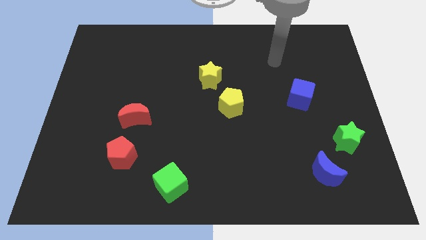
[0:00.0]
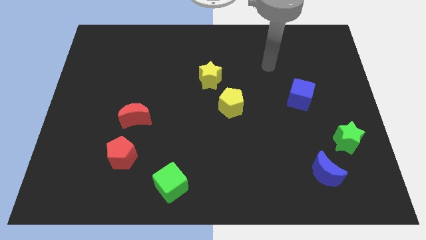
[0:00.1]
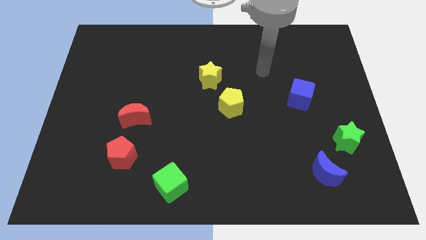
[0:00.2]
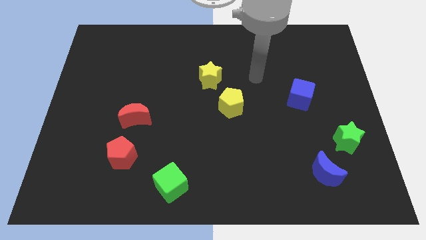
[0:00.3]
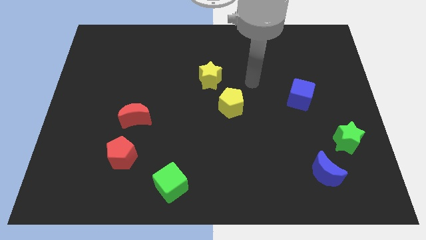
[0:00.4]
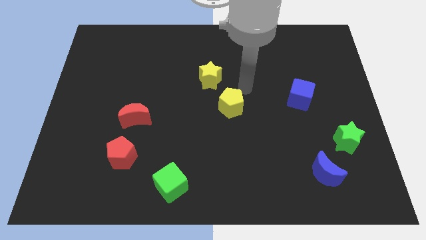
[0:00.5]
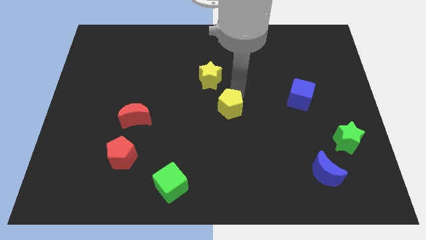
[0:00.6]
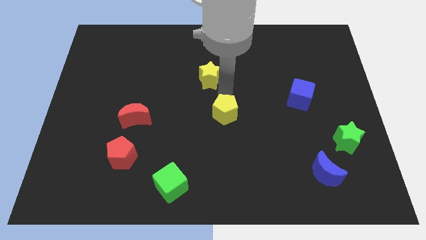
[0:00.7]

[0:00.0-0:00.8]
pull the yellow star apart from the yellow pentagon

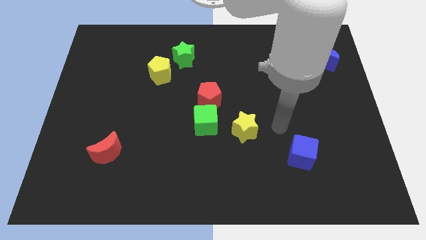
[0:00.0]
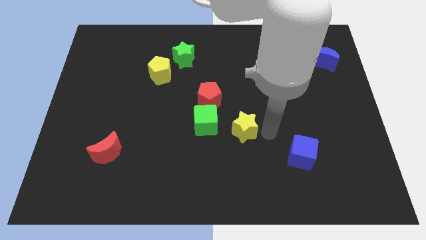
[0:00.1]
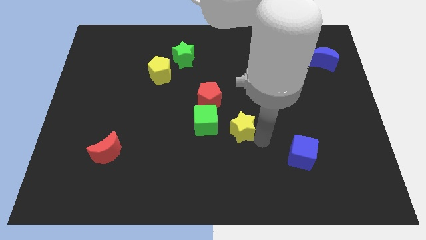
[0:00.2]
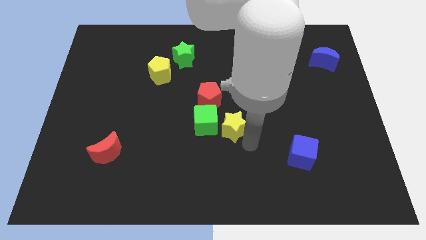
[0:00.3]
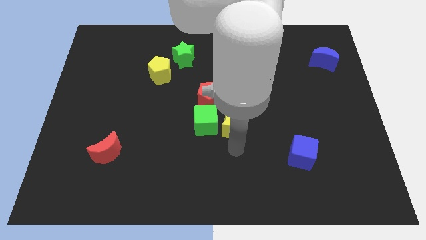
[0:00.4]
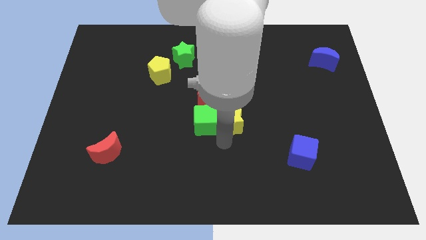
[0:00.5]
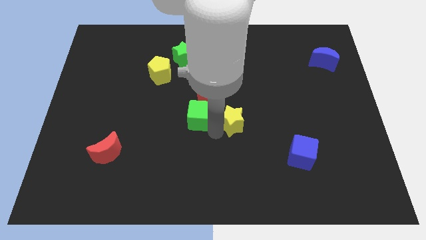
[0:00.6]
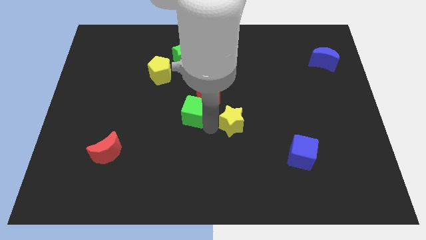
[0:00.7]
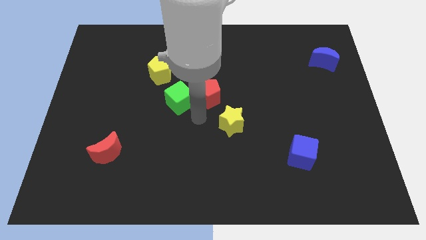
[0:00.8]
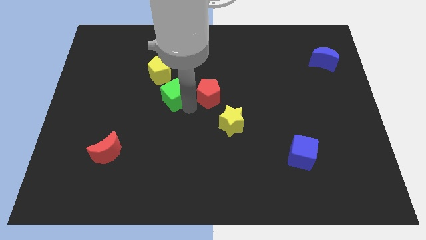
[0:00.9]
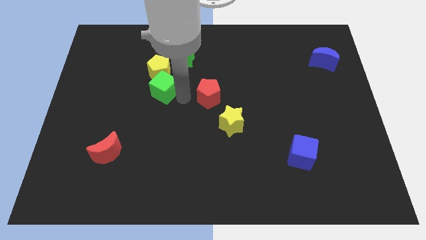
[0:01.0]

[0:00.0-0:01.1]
pull the red pentagon apart from the green cube

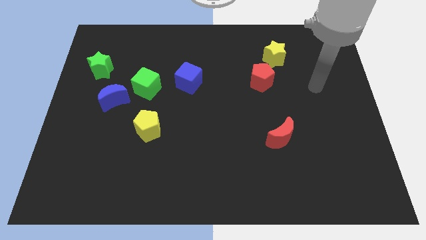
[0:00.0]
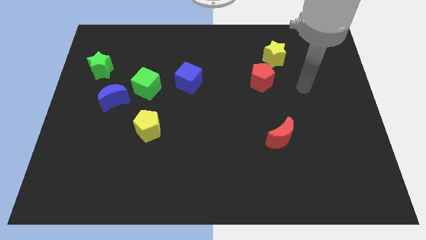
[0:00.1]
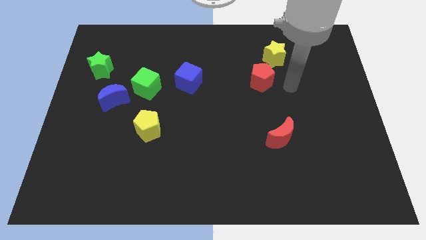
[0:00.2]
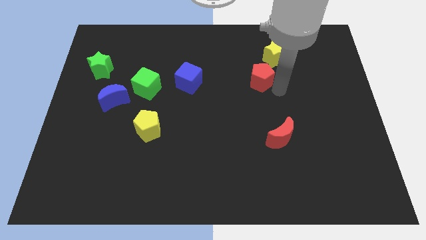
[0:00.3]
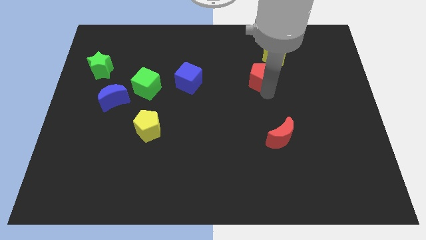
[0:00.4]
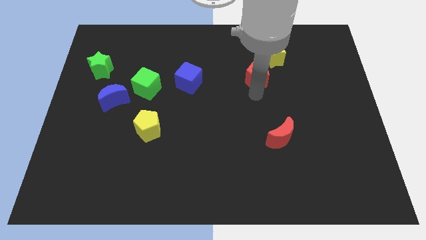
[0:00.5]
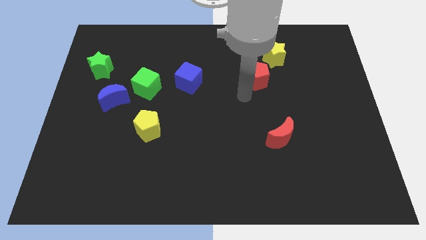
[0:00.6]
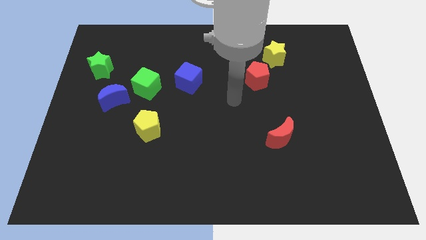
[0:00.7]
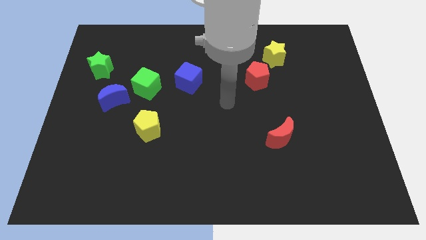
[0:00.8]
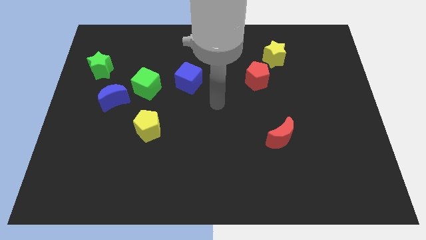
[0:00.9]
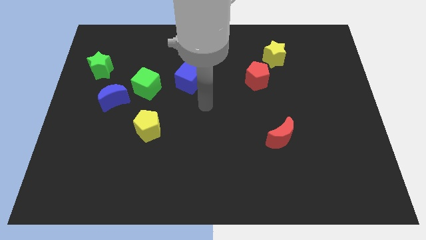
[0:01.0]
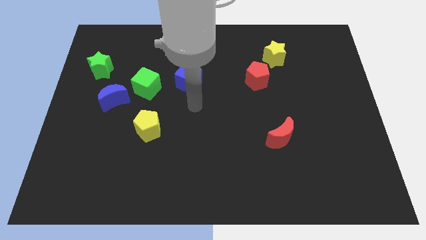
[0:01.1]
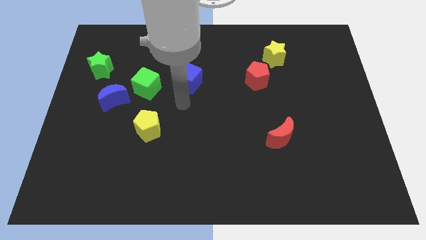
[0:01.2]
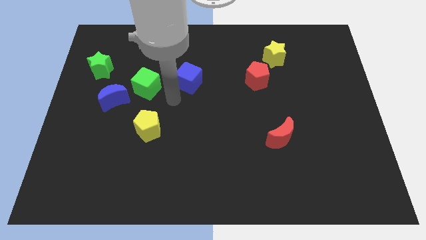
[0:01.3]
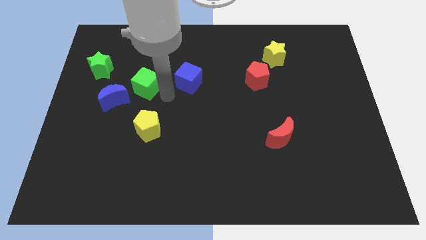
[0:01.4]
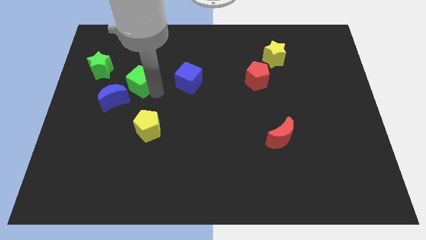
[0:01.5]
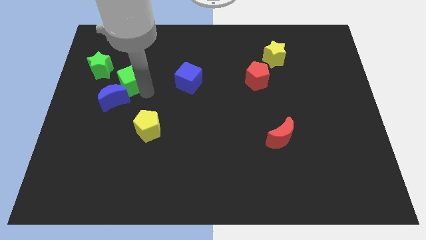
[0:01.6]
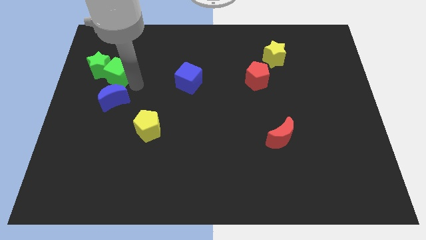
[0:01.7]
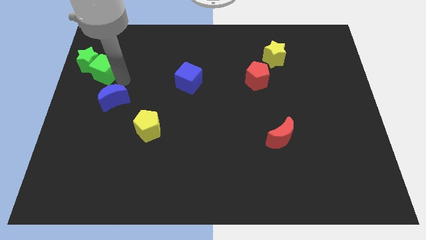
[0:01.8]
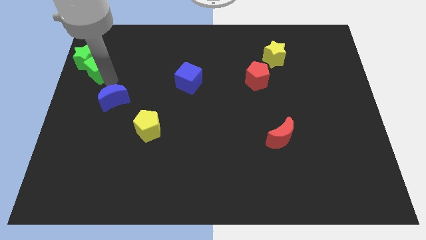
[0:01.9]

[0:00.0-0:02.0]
separate the blue moon from the green cube

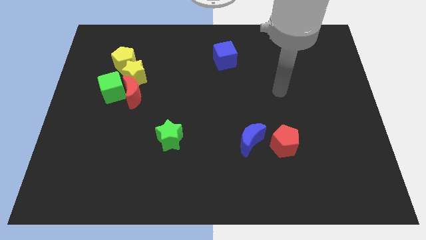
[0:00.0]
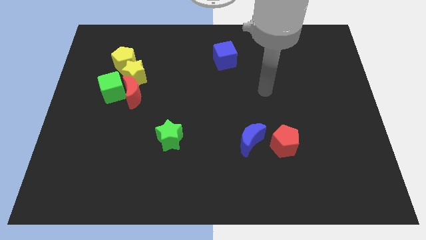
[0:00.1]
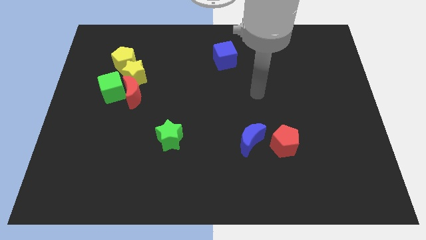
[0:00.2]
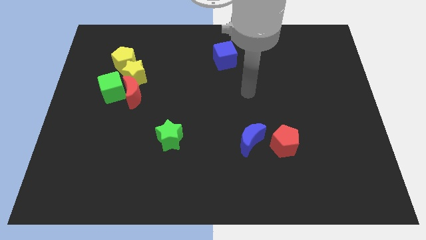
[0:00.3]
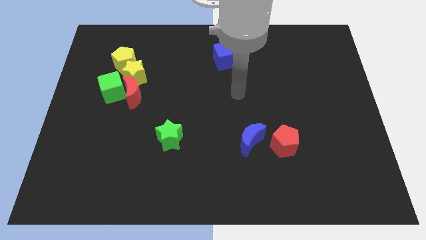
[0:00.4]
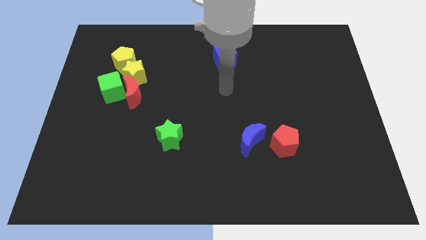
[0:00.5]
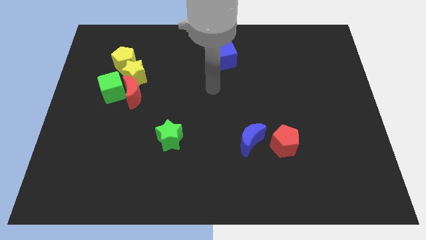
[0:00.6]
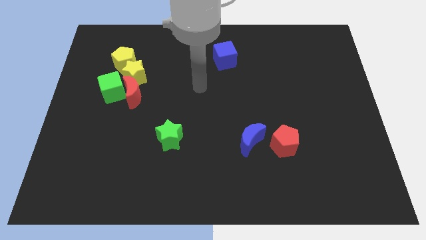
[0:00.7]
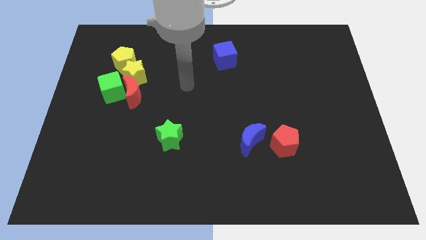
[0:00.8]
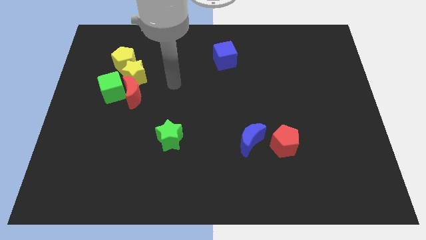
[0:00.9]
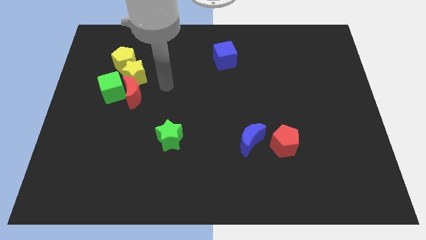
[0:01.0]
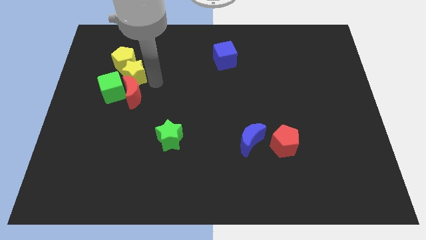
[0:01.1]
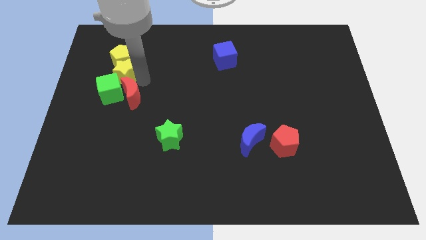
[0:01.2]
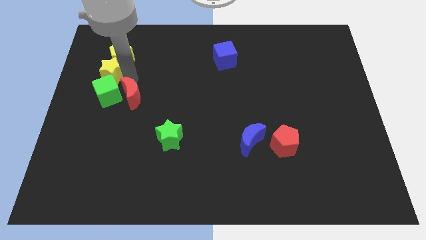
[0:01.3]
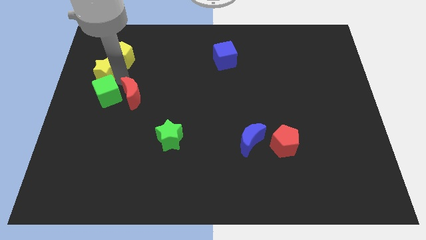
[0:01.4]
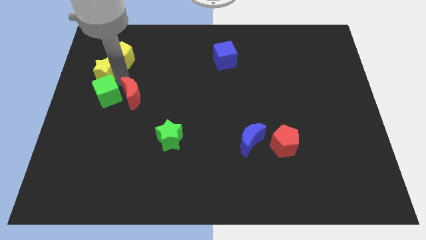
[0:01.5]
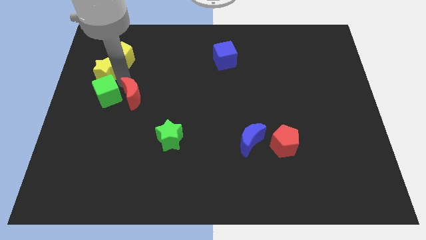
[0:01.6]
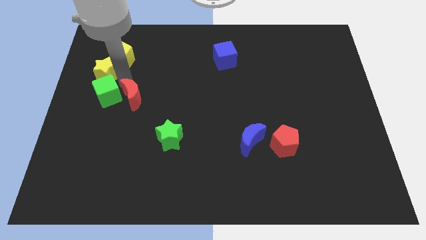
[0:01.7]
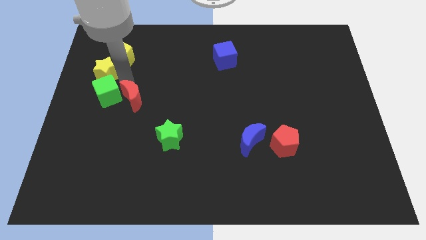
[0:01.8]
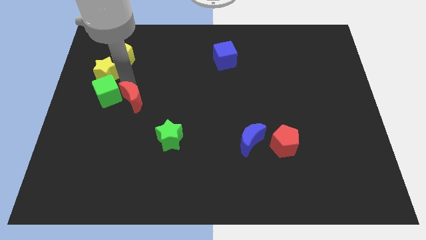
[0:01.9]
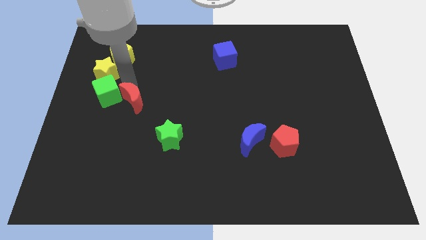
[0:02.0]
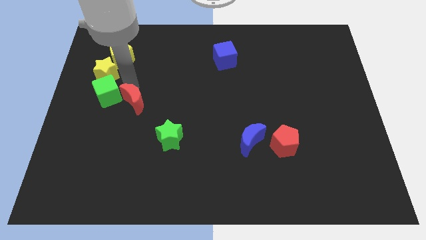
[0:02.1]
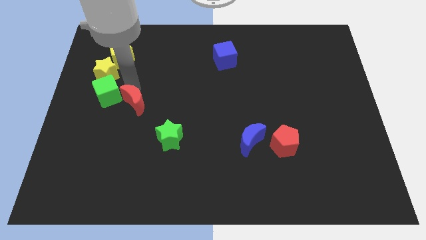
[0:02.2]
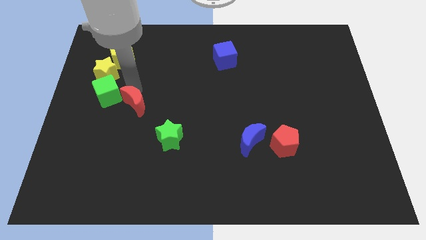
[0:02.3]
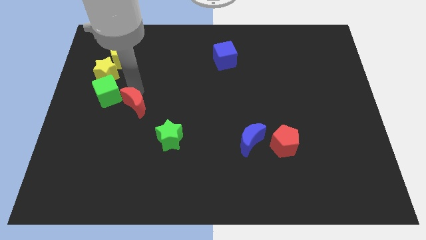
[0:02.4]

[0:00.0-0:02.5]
separate the red moon from the green cube and yellow star

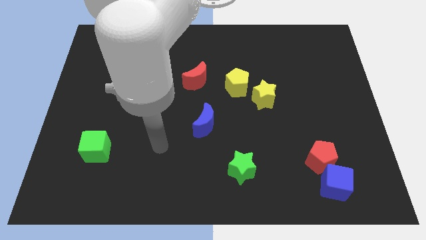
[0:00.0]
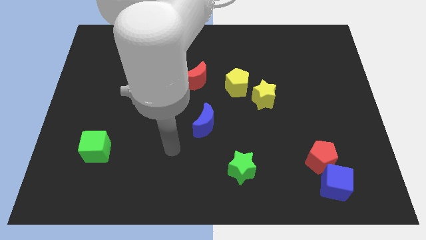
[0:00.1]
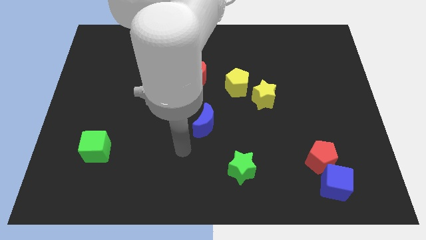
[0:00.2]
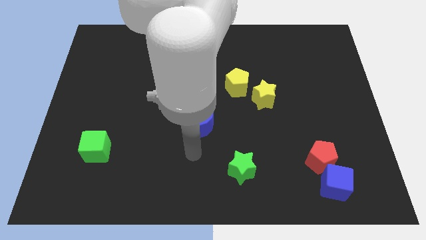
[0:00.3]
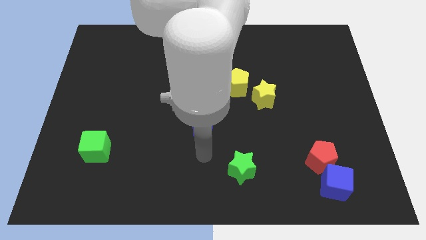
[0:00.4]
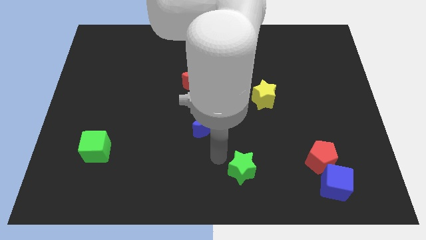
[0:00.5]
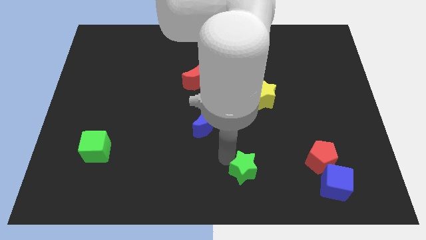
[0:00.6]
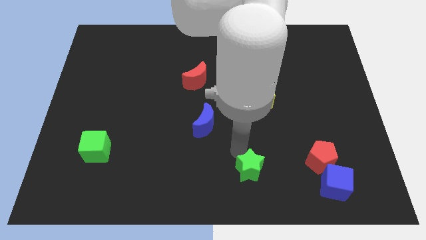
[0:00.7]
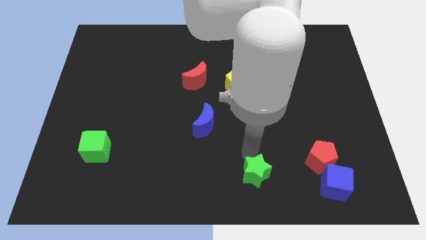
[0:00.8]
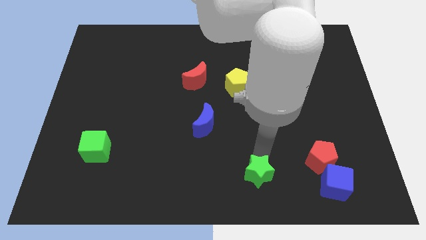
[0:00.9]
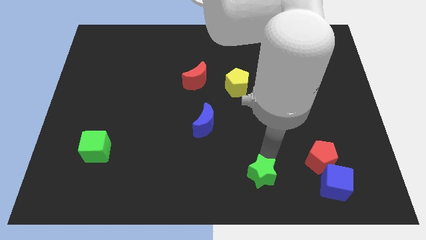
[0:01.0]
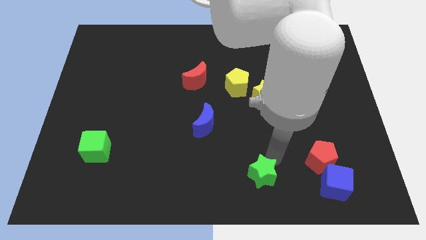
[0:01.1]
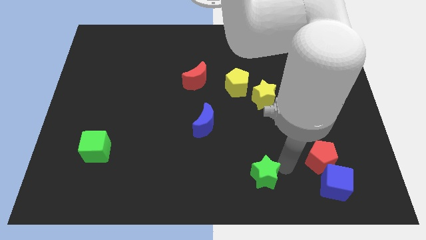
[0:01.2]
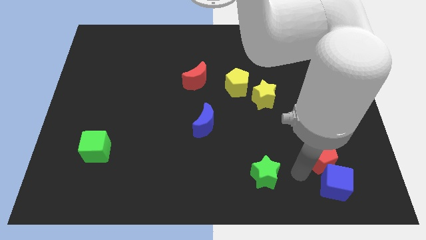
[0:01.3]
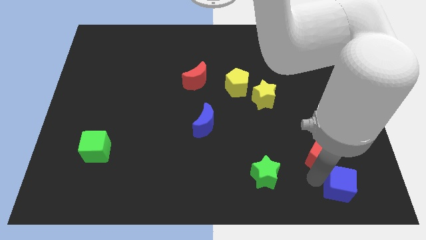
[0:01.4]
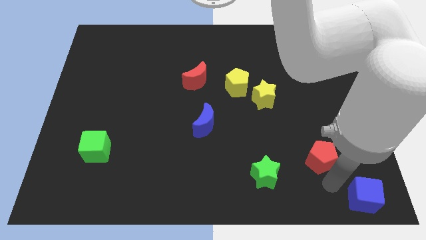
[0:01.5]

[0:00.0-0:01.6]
pull the red pentagon apart from the blue cube

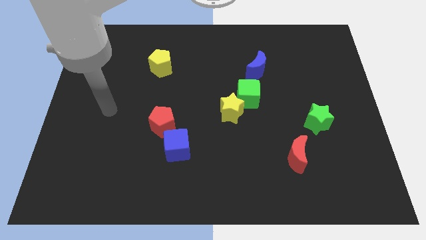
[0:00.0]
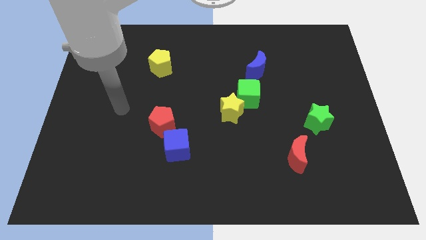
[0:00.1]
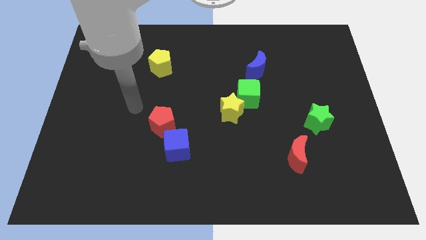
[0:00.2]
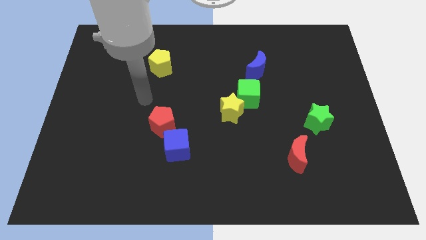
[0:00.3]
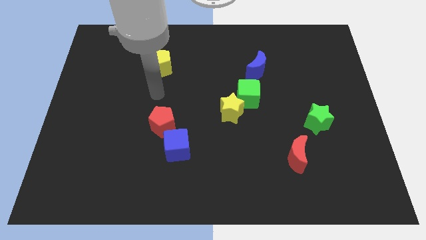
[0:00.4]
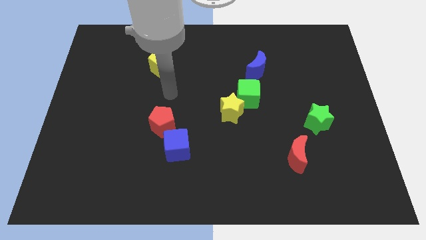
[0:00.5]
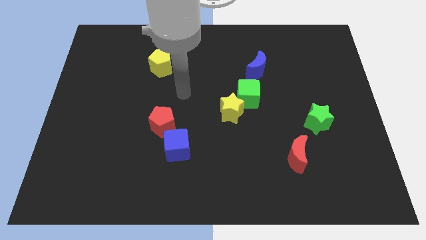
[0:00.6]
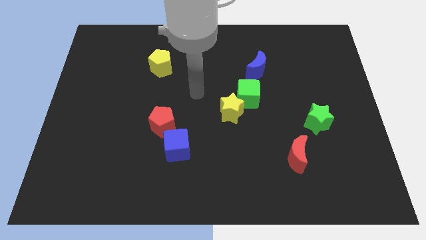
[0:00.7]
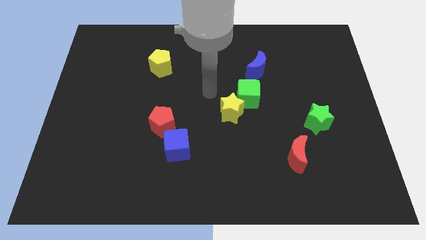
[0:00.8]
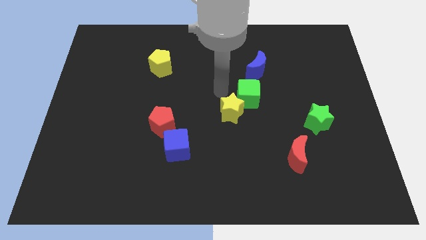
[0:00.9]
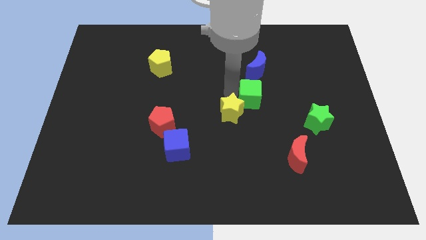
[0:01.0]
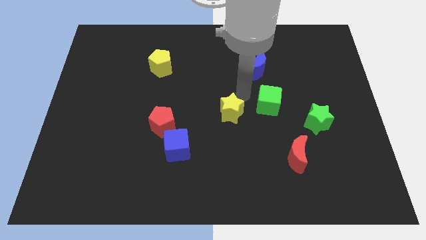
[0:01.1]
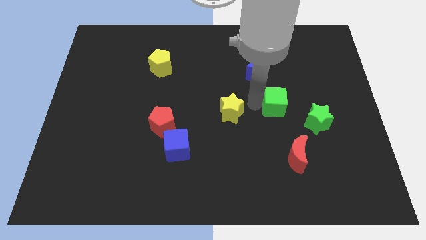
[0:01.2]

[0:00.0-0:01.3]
separate the yellow star from the green cube
